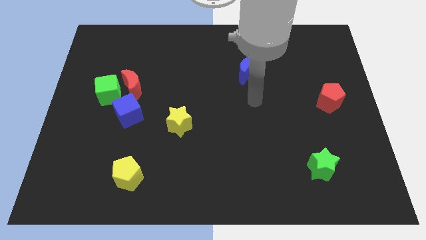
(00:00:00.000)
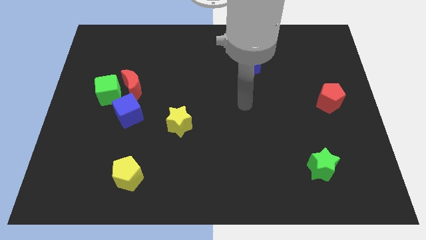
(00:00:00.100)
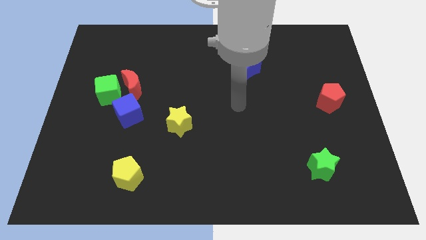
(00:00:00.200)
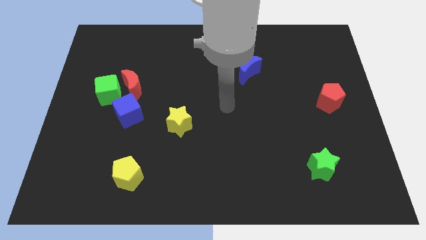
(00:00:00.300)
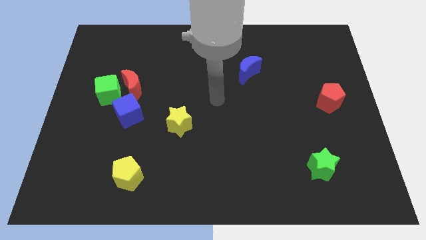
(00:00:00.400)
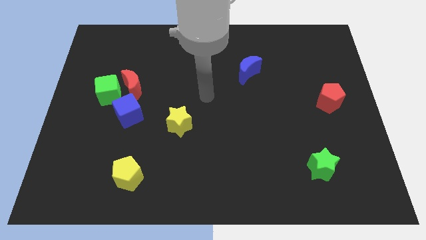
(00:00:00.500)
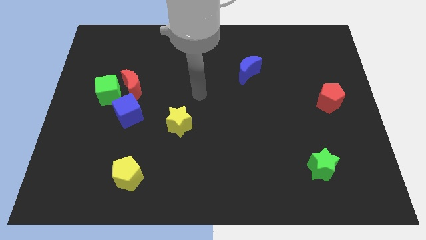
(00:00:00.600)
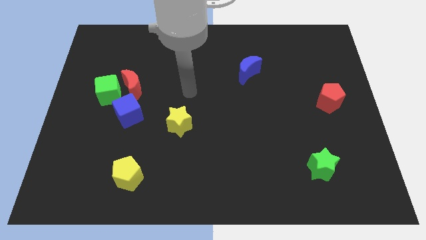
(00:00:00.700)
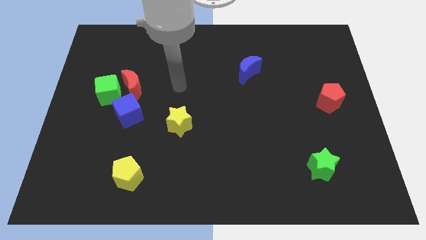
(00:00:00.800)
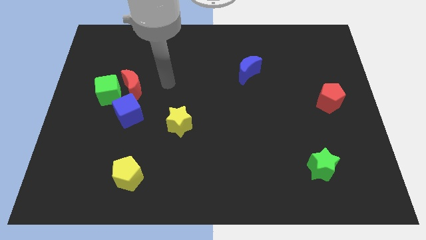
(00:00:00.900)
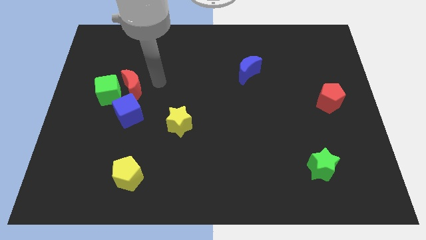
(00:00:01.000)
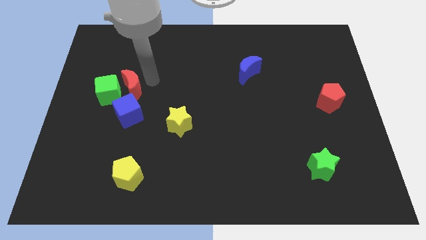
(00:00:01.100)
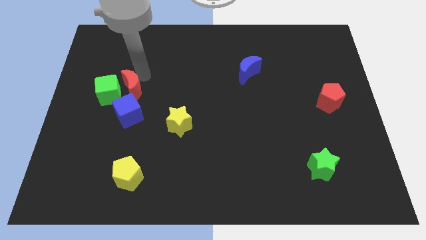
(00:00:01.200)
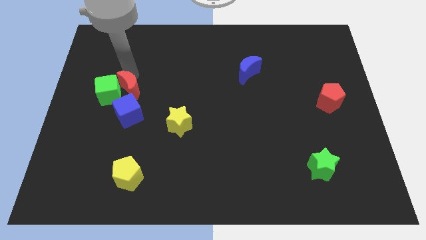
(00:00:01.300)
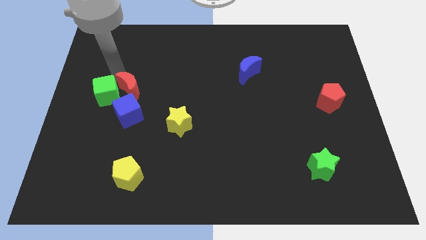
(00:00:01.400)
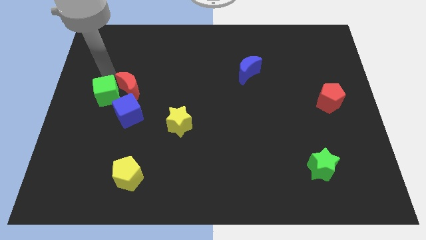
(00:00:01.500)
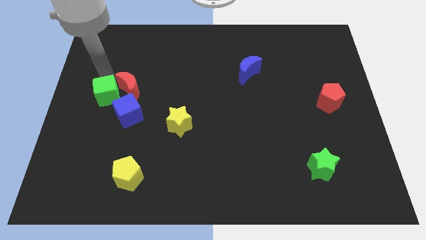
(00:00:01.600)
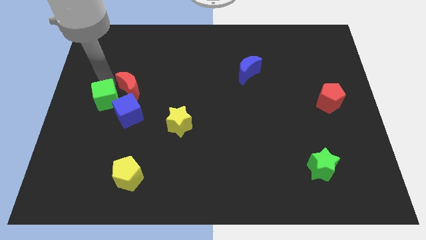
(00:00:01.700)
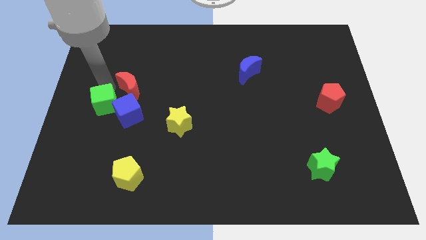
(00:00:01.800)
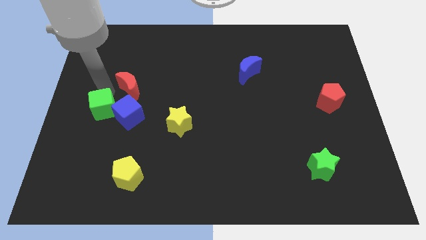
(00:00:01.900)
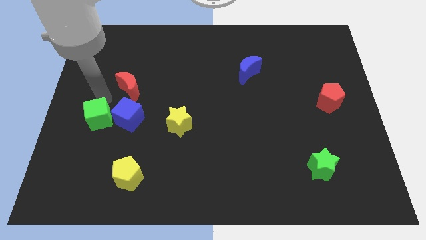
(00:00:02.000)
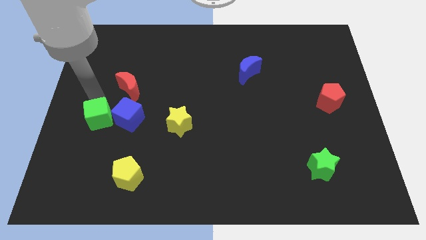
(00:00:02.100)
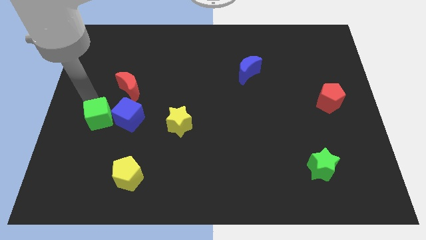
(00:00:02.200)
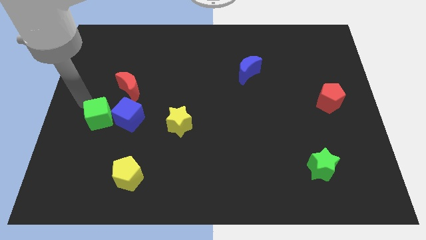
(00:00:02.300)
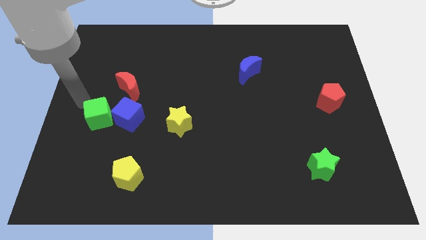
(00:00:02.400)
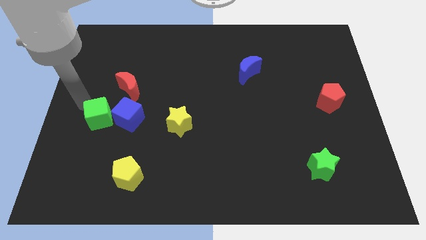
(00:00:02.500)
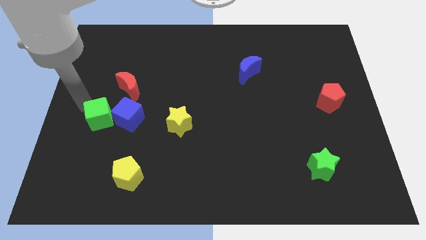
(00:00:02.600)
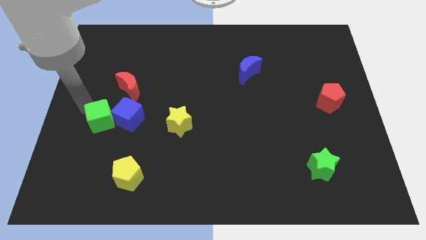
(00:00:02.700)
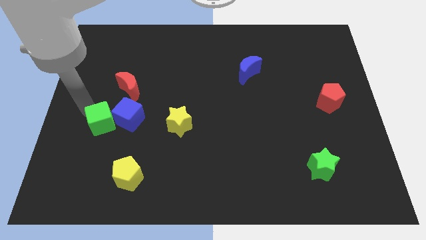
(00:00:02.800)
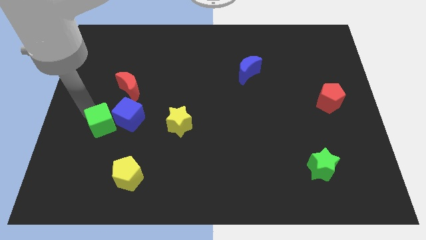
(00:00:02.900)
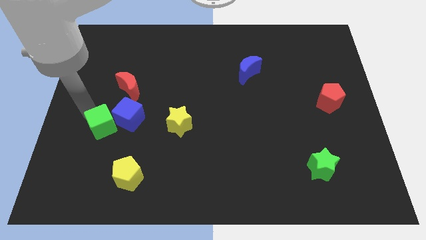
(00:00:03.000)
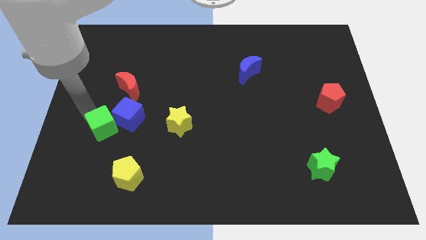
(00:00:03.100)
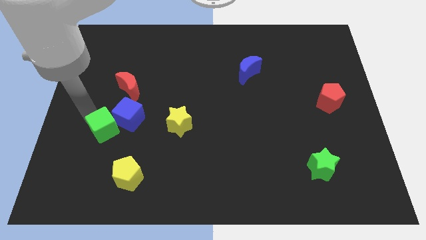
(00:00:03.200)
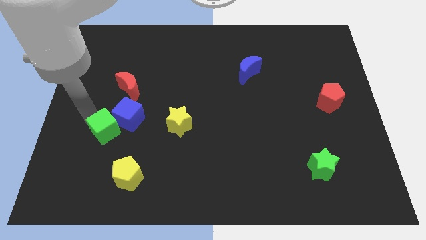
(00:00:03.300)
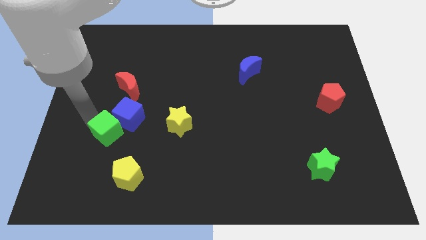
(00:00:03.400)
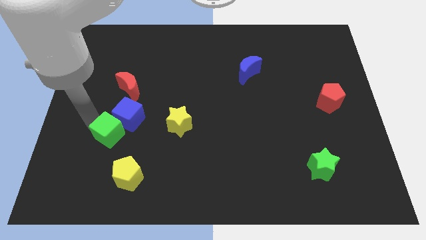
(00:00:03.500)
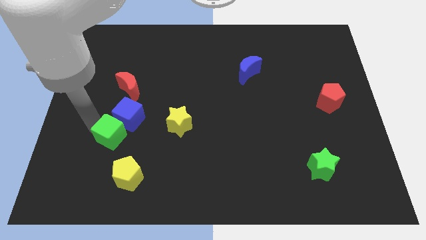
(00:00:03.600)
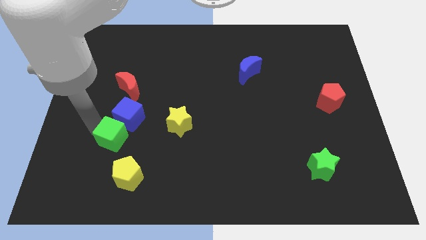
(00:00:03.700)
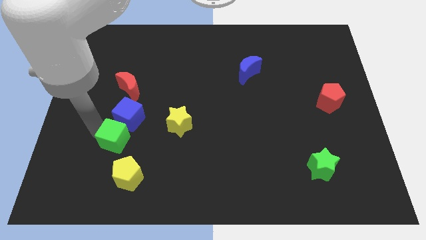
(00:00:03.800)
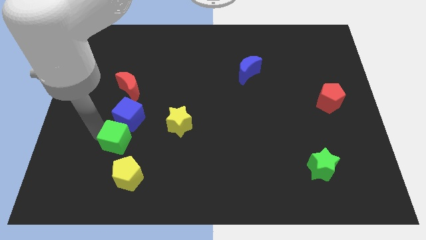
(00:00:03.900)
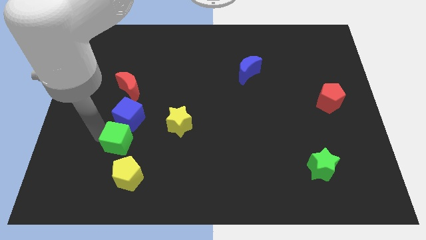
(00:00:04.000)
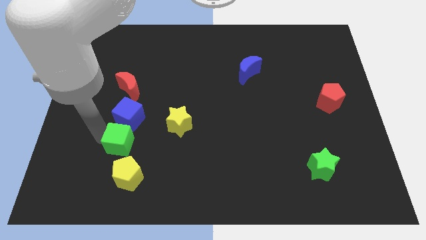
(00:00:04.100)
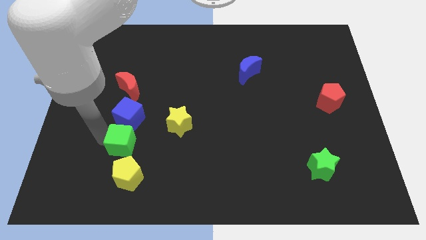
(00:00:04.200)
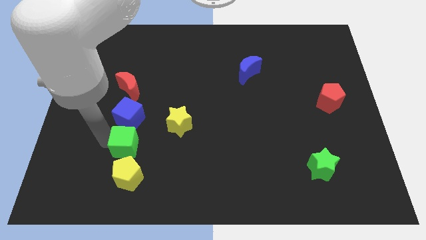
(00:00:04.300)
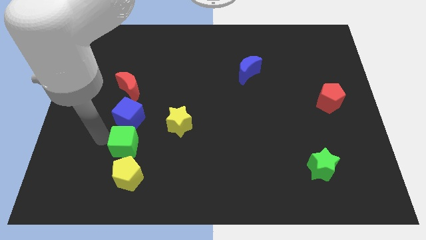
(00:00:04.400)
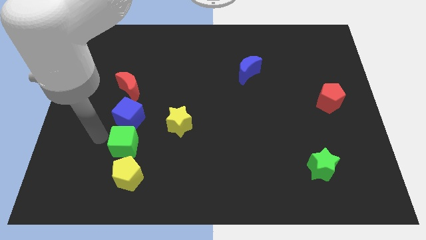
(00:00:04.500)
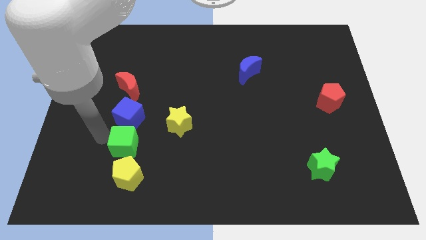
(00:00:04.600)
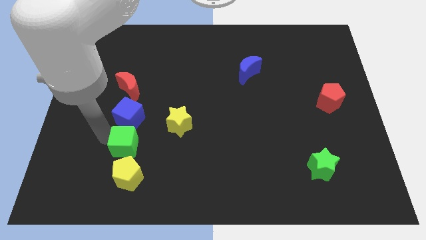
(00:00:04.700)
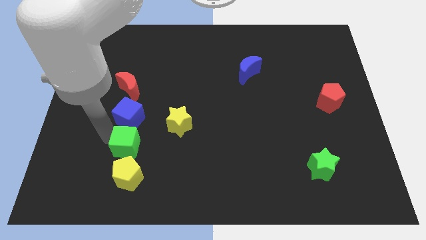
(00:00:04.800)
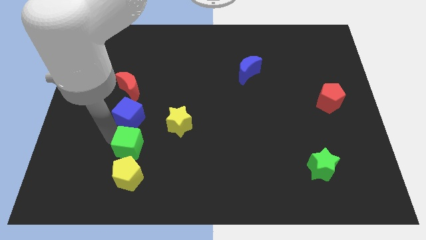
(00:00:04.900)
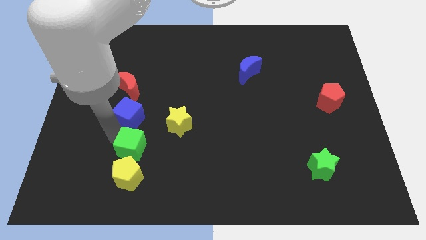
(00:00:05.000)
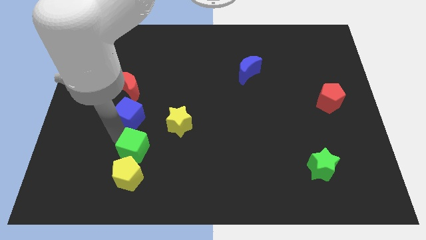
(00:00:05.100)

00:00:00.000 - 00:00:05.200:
slide the green cube to the top right side of the yellow pentagon

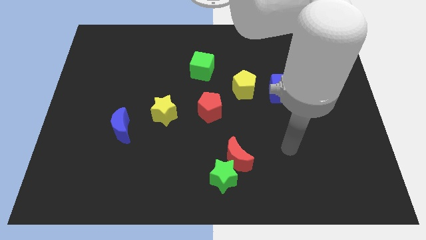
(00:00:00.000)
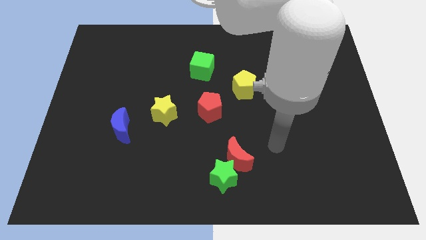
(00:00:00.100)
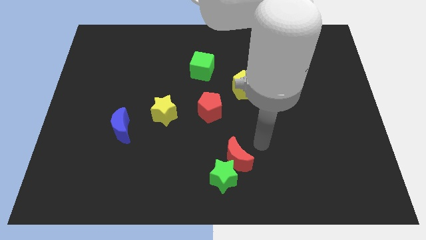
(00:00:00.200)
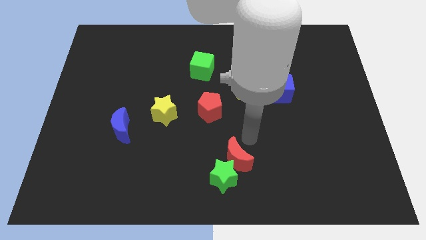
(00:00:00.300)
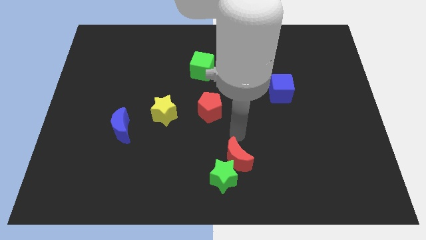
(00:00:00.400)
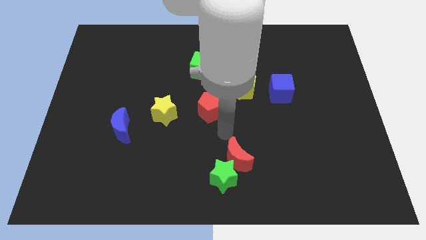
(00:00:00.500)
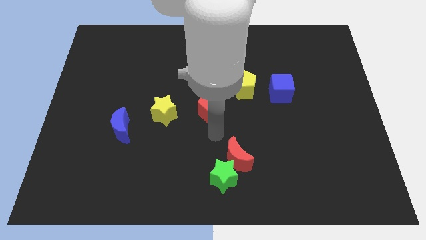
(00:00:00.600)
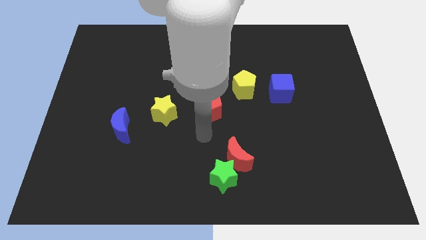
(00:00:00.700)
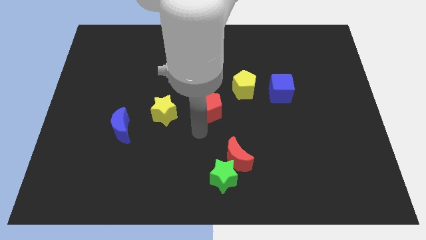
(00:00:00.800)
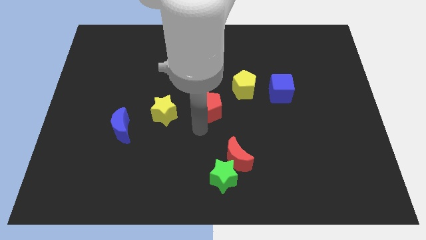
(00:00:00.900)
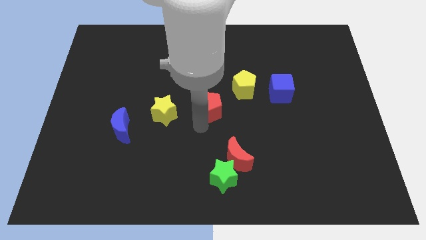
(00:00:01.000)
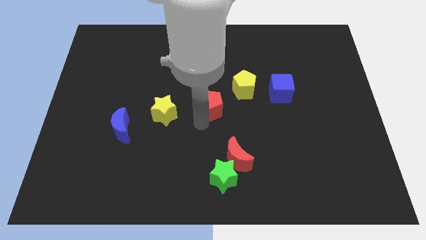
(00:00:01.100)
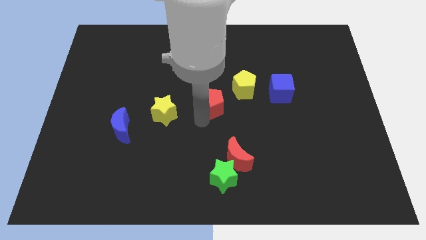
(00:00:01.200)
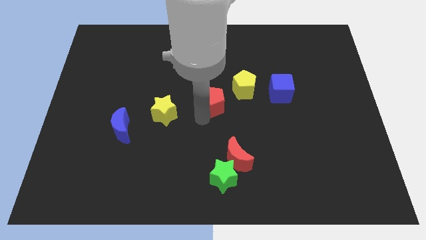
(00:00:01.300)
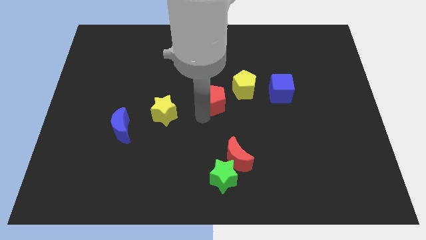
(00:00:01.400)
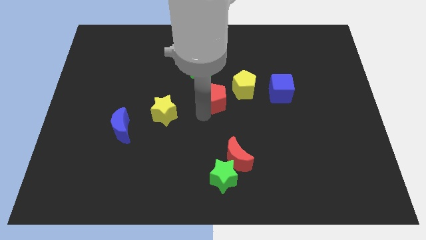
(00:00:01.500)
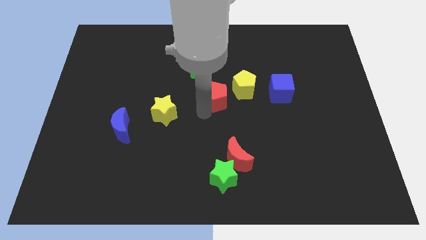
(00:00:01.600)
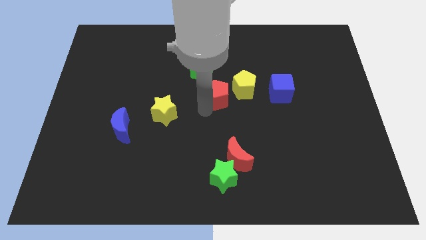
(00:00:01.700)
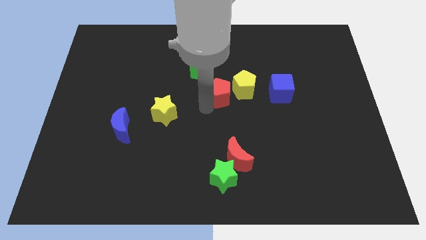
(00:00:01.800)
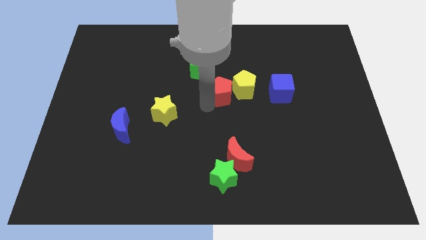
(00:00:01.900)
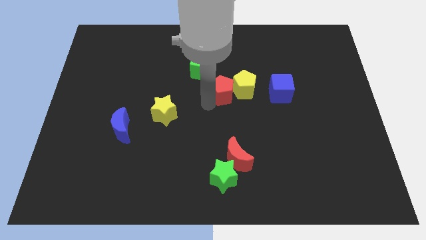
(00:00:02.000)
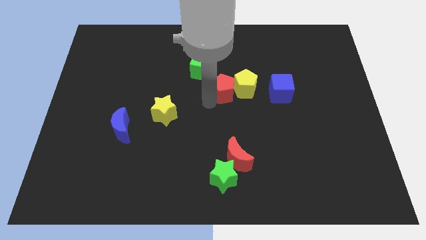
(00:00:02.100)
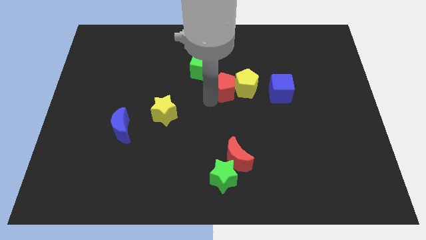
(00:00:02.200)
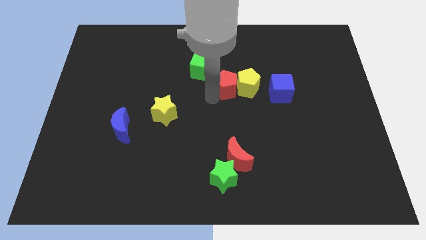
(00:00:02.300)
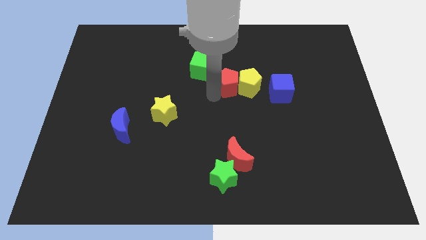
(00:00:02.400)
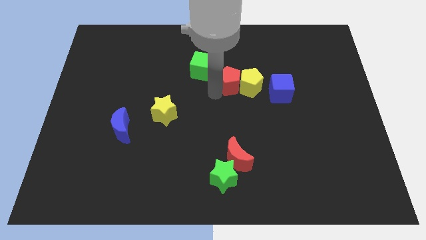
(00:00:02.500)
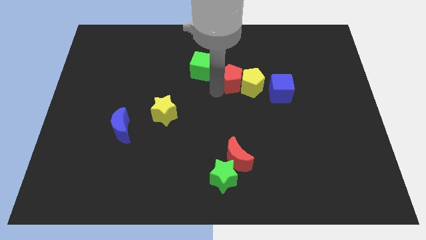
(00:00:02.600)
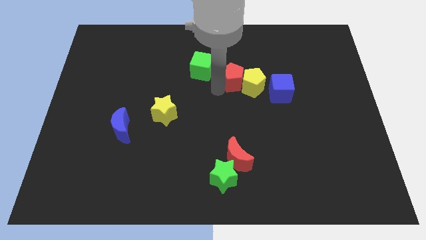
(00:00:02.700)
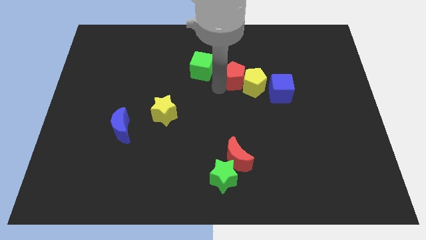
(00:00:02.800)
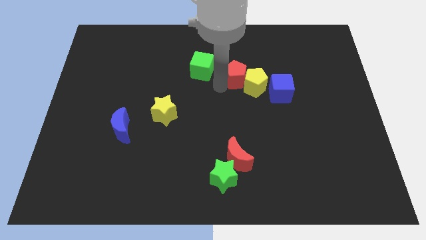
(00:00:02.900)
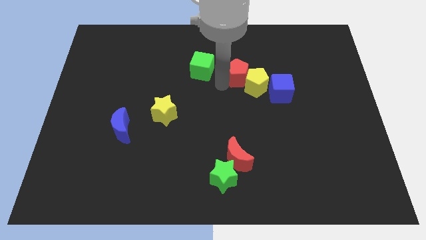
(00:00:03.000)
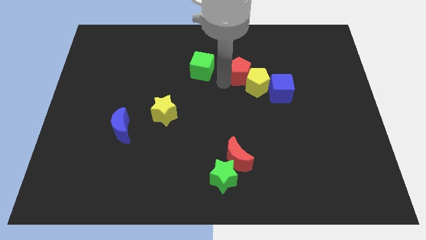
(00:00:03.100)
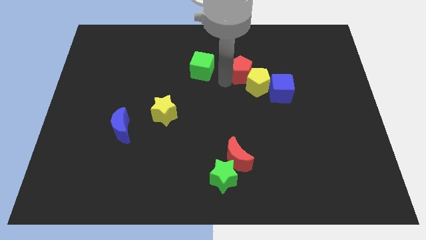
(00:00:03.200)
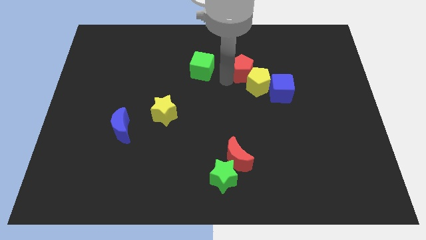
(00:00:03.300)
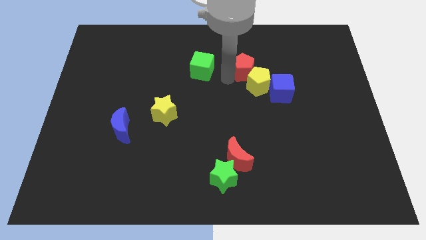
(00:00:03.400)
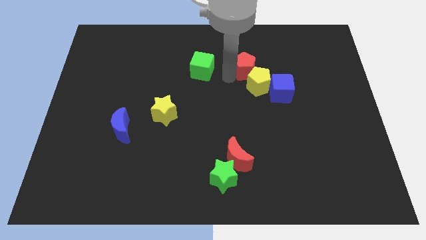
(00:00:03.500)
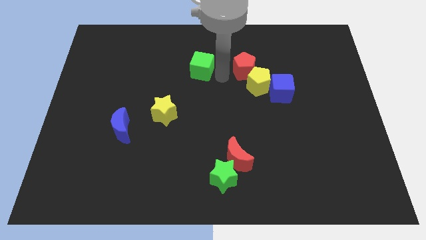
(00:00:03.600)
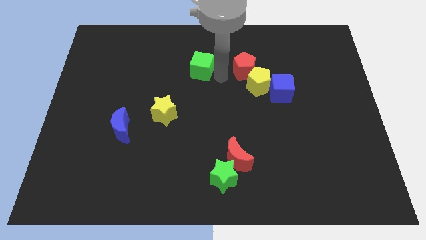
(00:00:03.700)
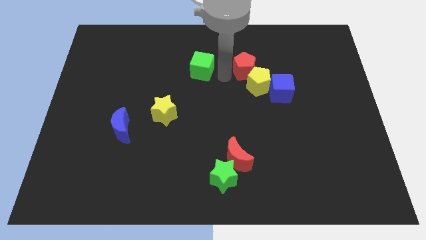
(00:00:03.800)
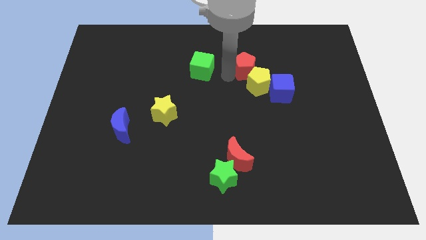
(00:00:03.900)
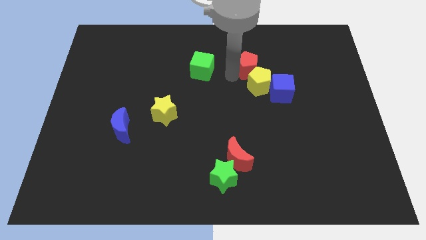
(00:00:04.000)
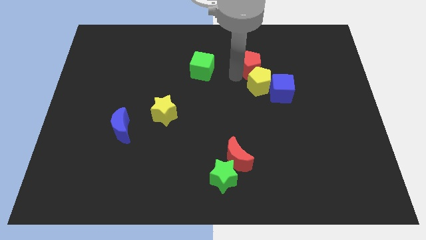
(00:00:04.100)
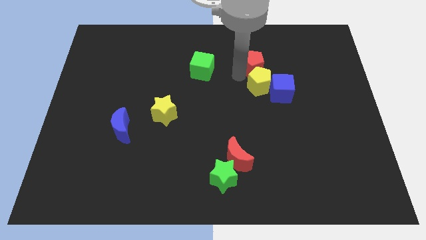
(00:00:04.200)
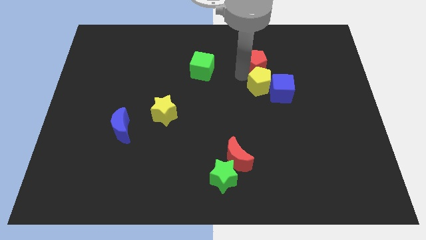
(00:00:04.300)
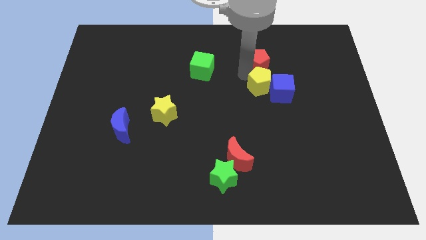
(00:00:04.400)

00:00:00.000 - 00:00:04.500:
push the red pentagon above the blue cube
